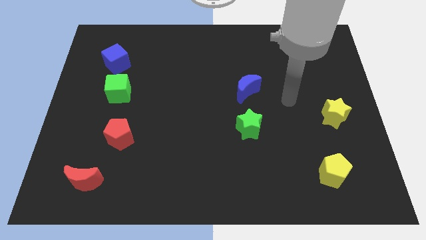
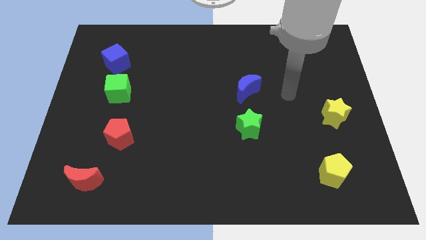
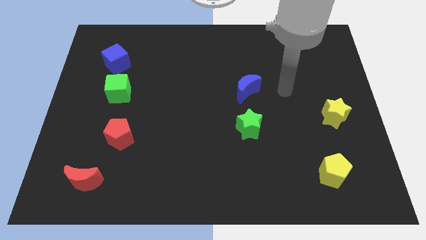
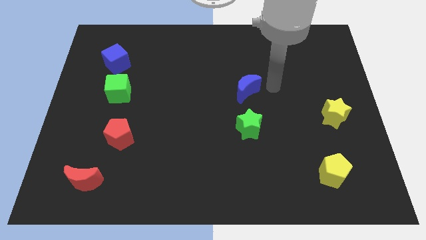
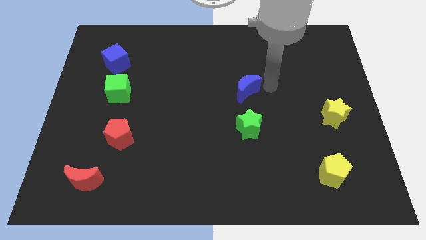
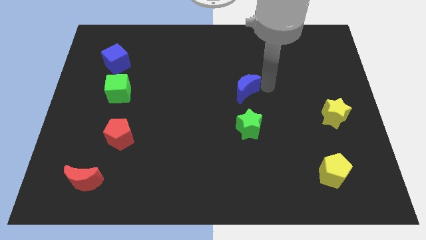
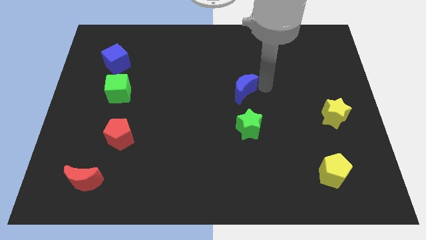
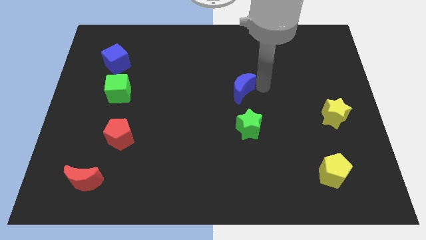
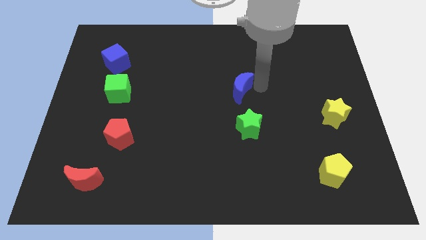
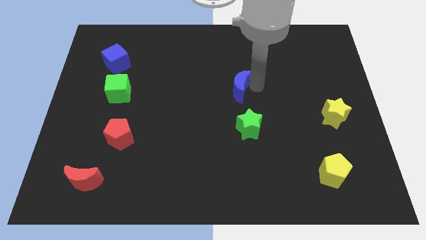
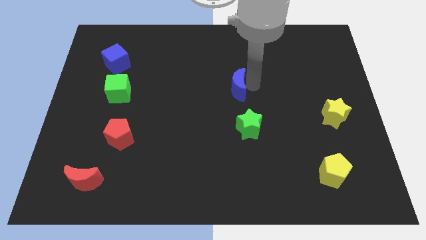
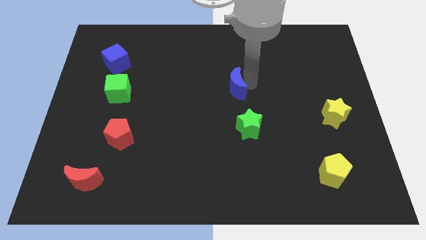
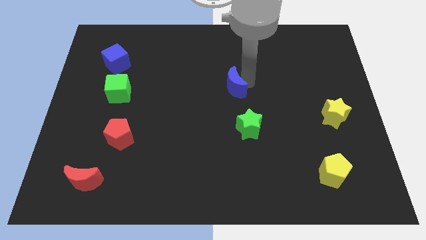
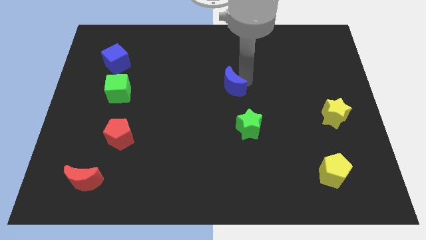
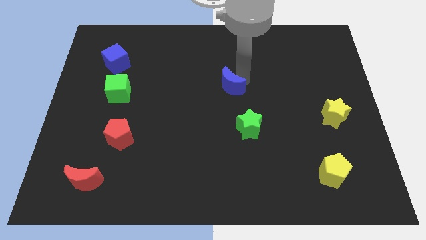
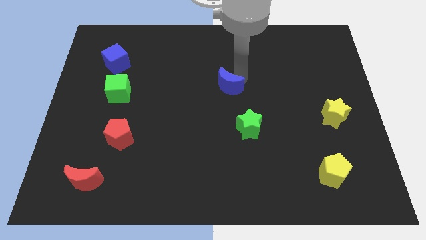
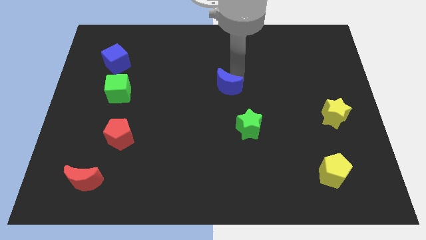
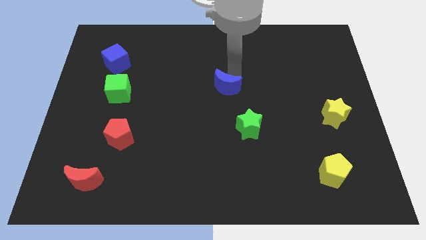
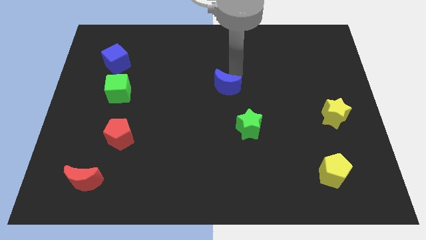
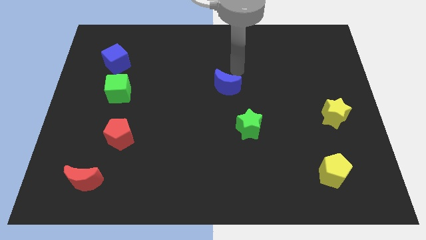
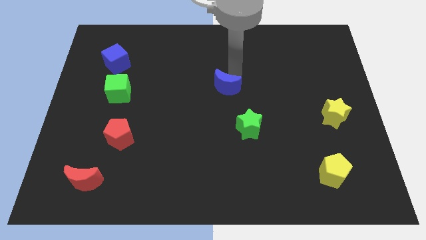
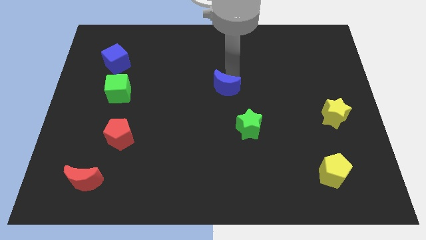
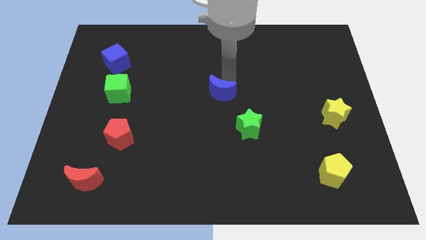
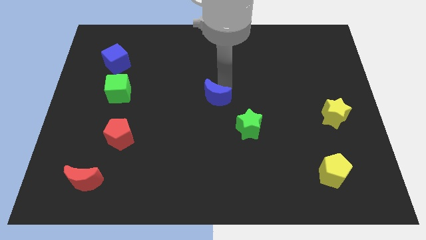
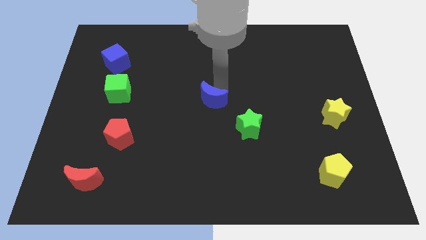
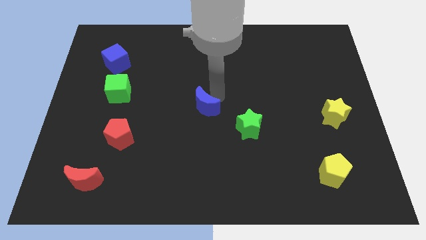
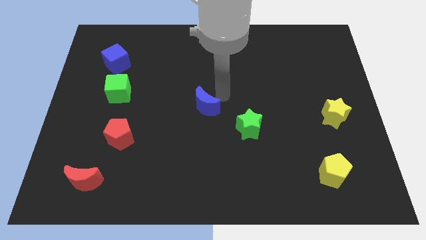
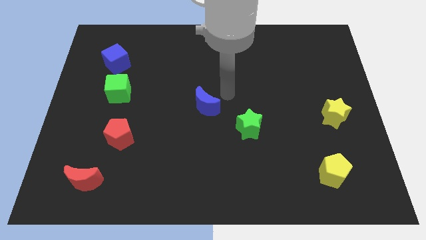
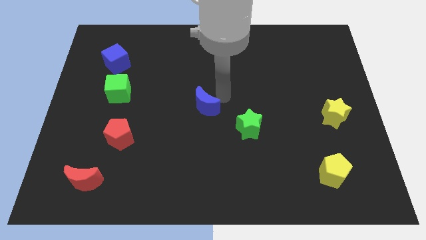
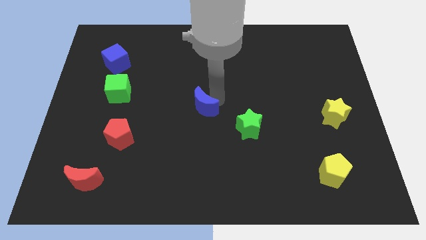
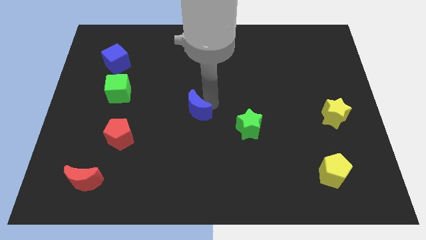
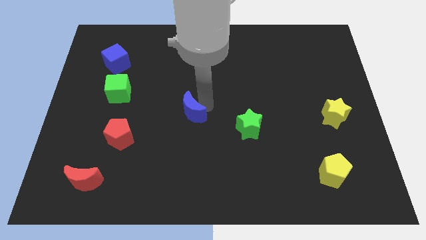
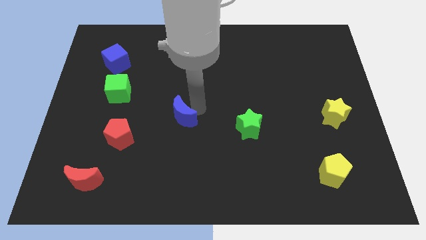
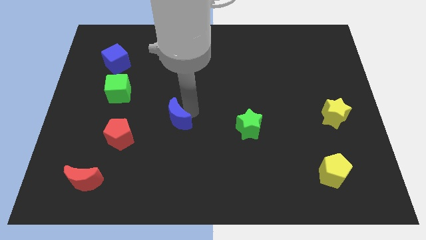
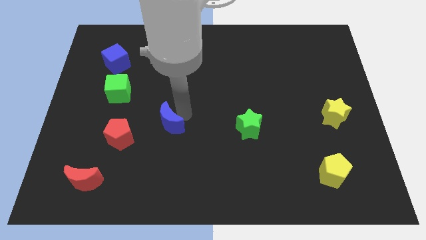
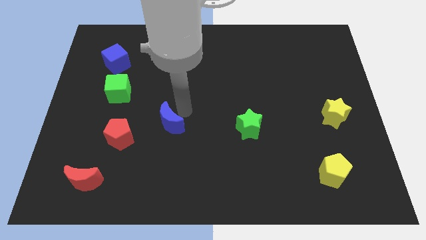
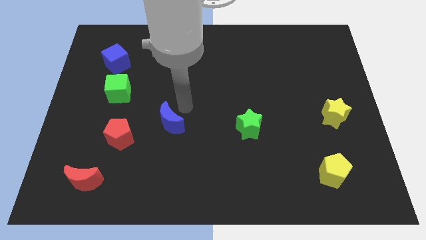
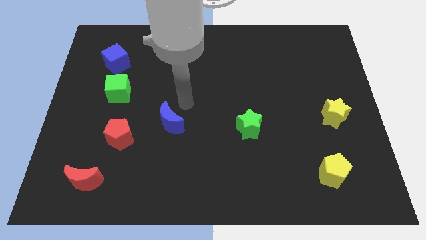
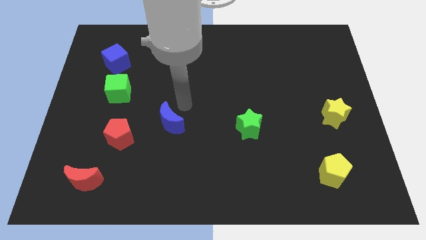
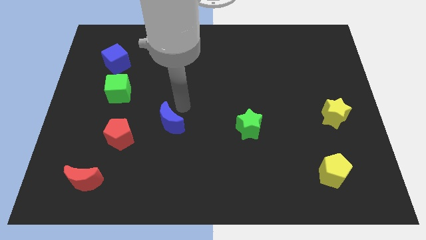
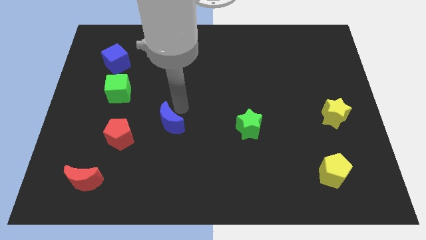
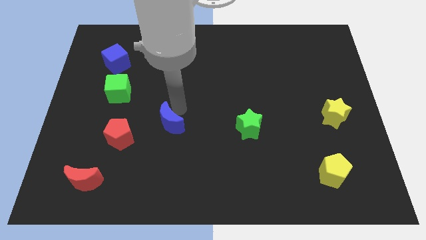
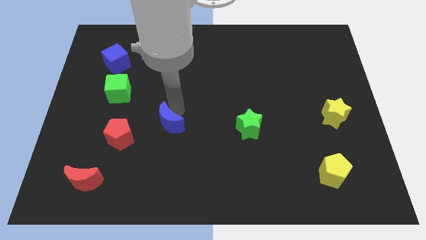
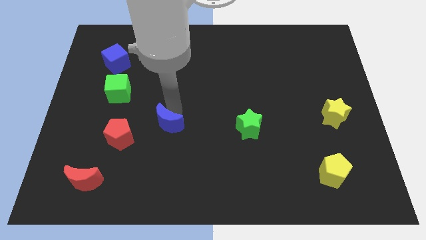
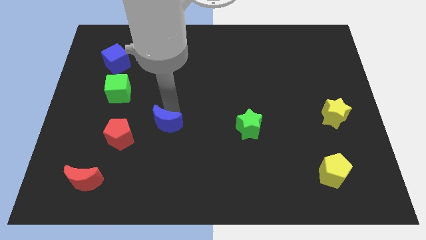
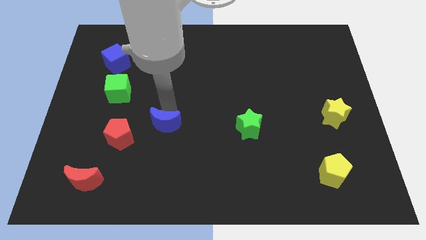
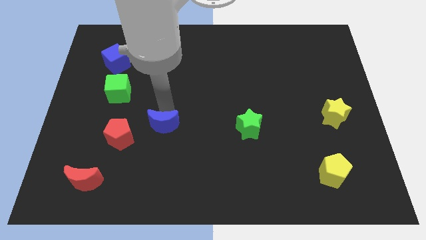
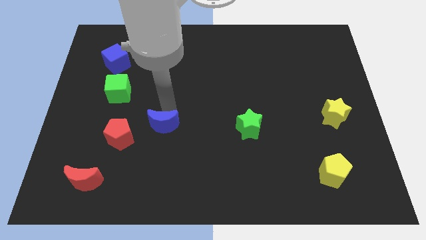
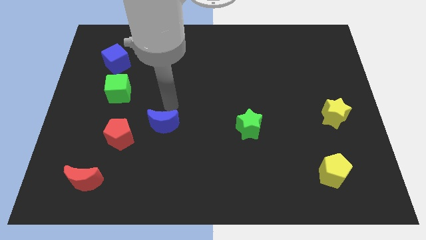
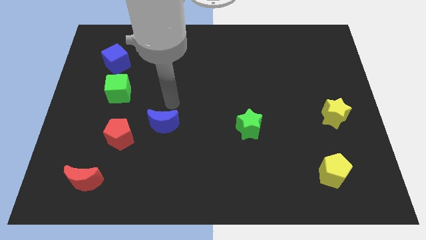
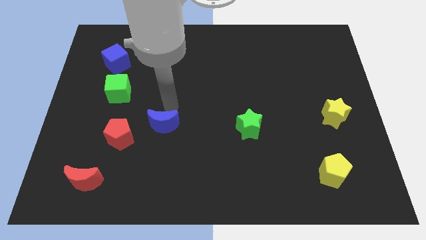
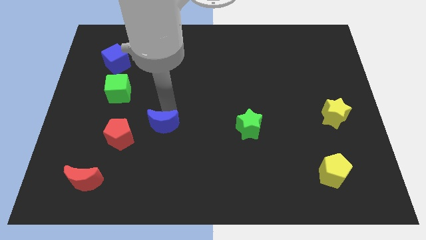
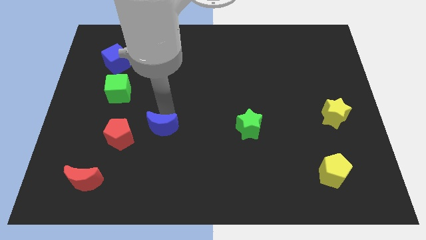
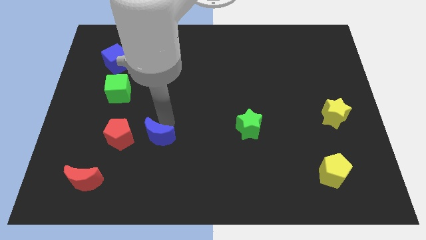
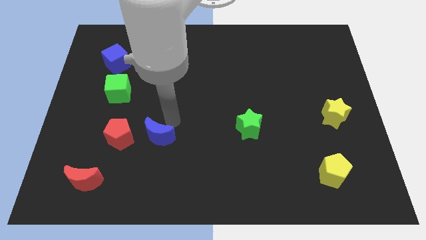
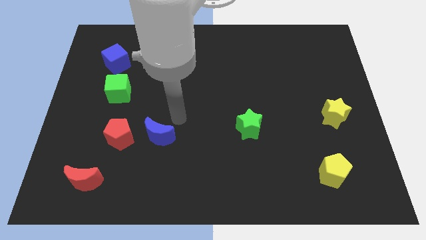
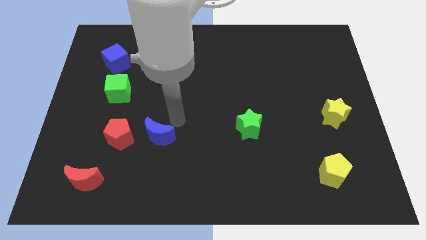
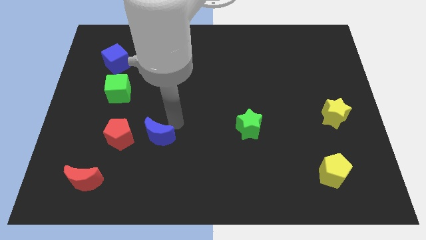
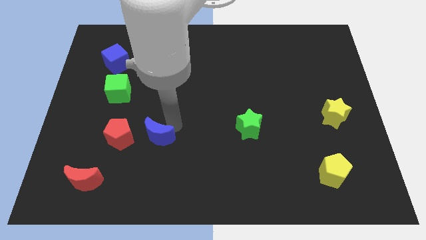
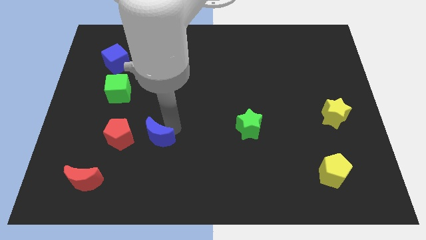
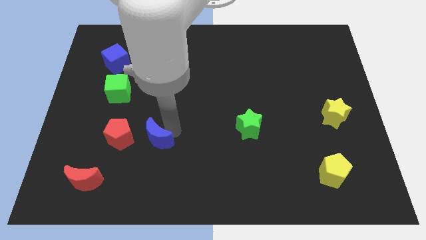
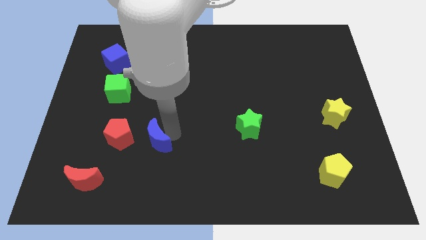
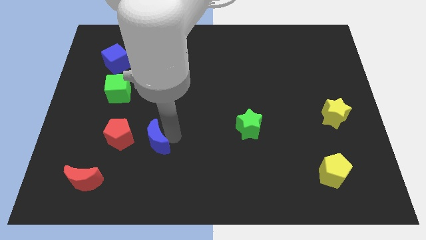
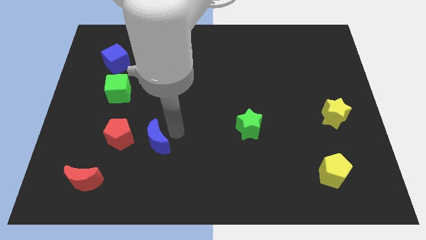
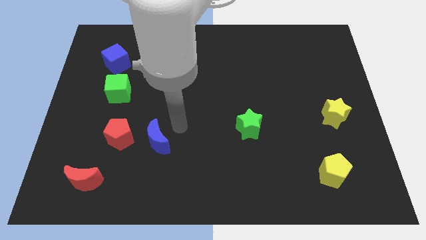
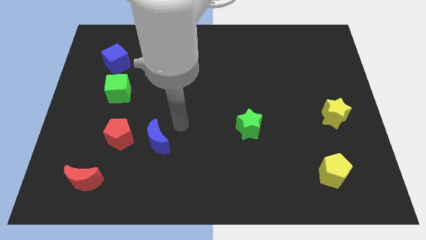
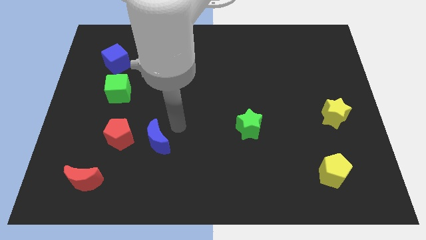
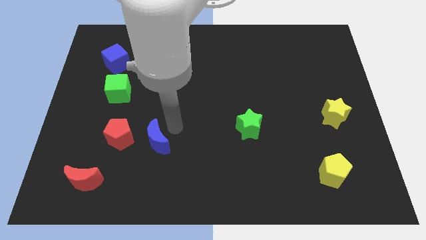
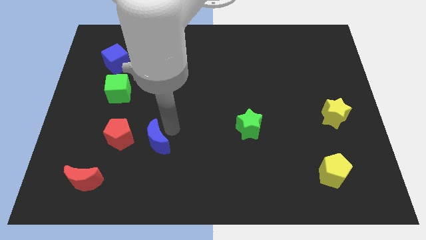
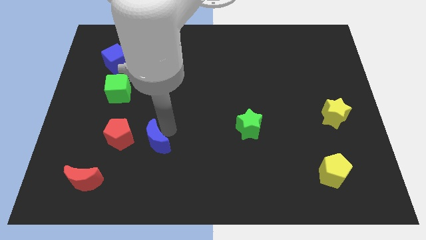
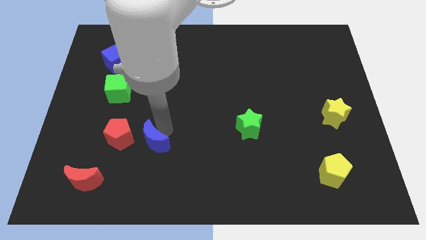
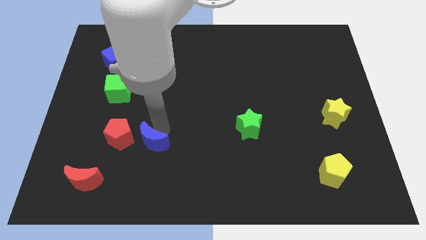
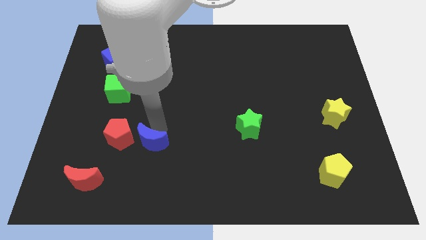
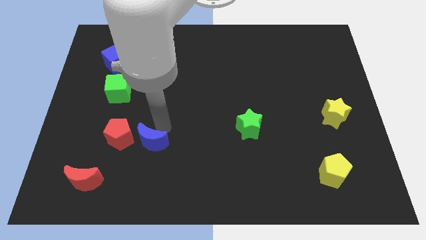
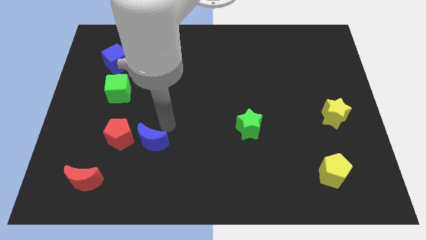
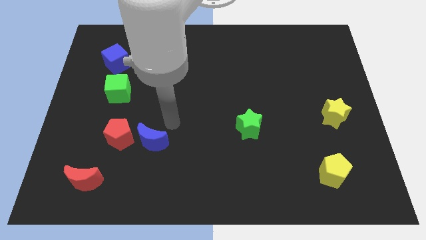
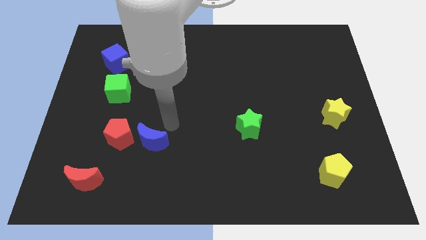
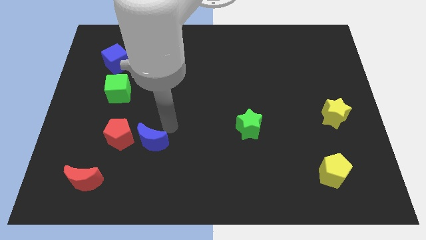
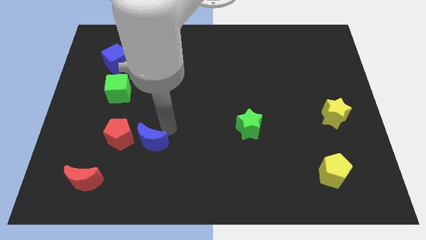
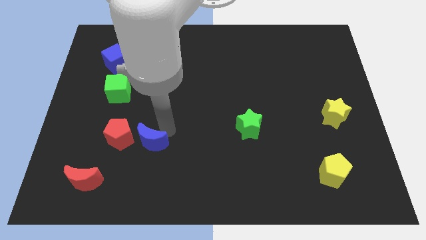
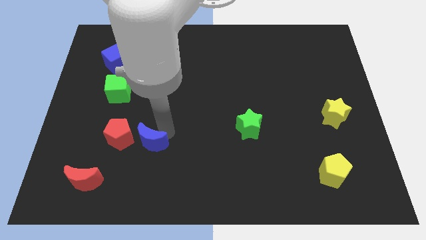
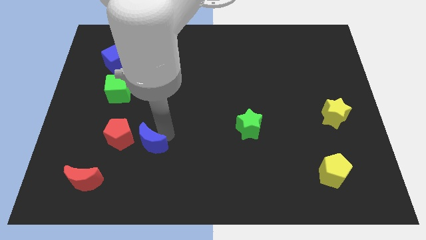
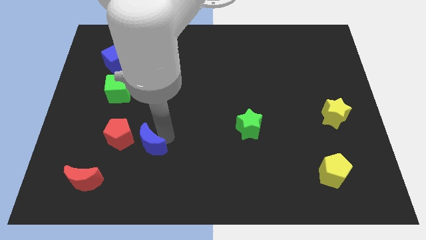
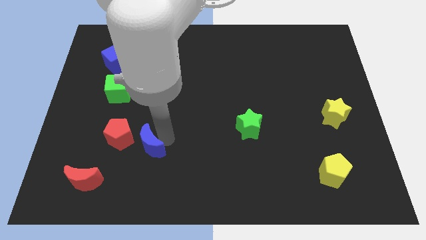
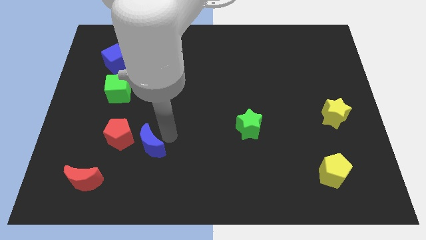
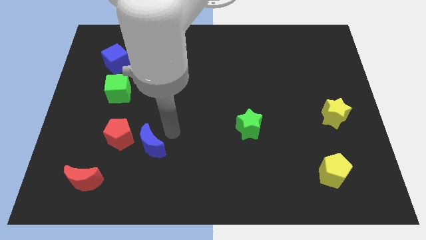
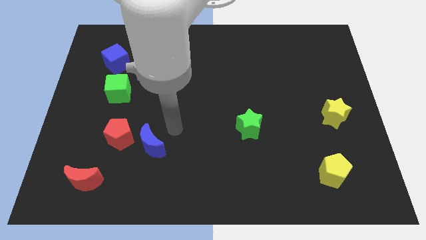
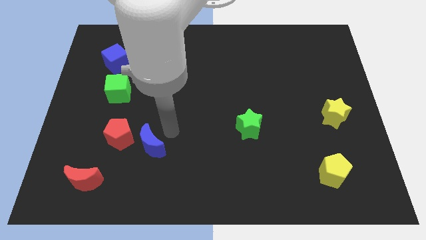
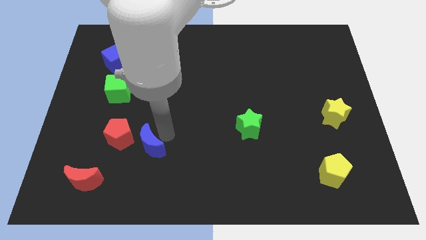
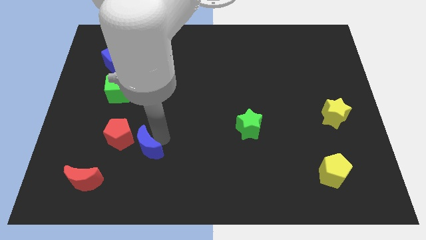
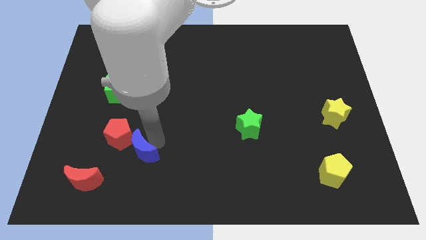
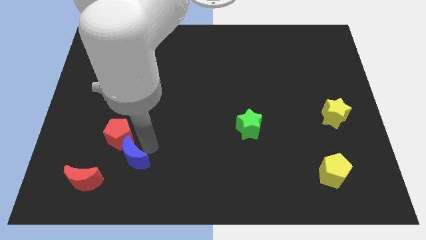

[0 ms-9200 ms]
put the blue moon to the bottom of the red pentagon
